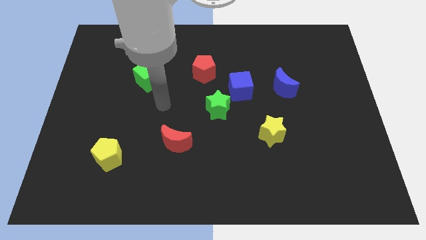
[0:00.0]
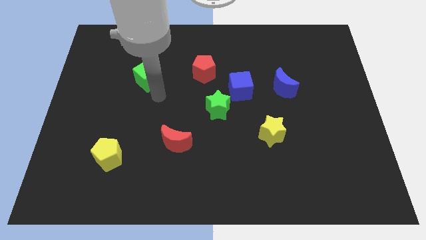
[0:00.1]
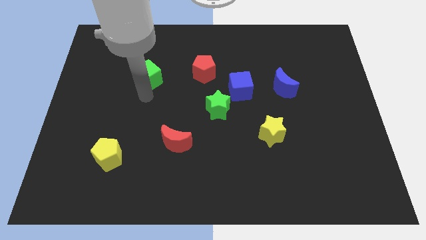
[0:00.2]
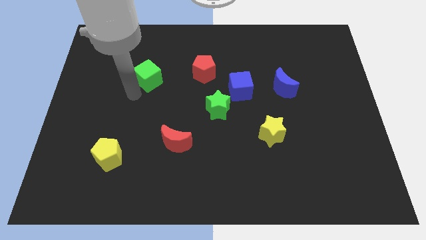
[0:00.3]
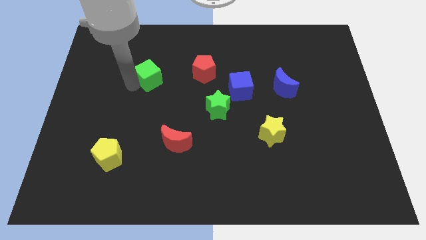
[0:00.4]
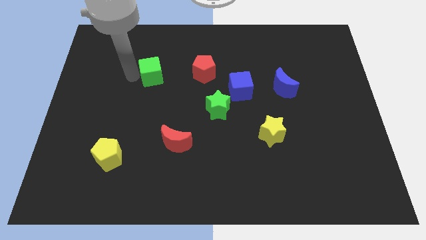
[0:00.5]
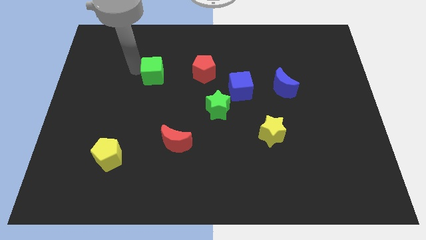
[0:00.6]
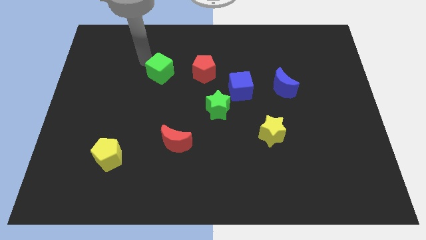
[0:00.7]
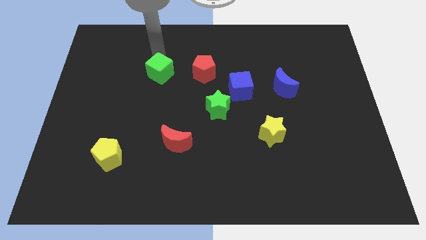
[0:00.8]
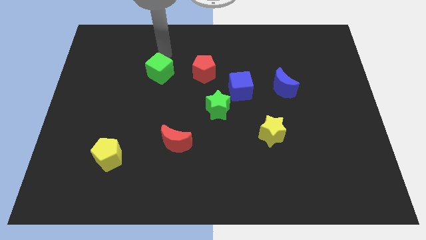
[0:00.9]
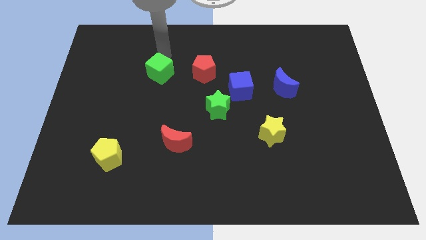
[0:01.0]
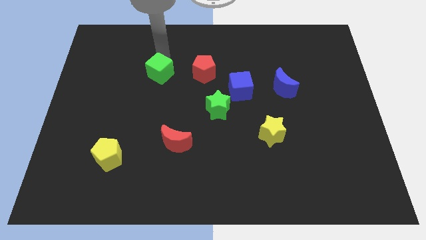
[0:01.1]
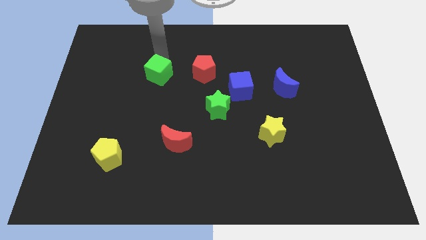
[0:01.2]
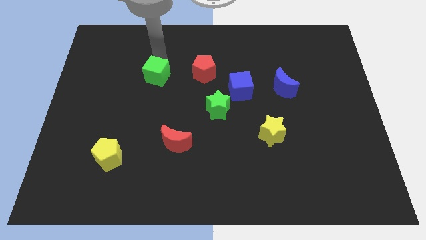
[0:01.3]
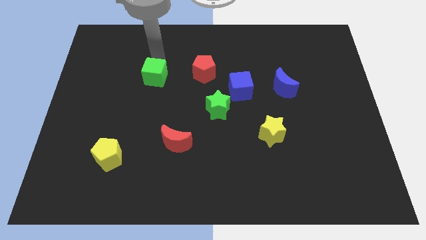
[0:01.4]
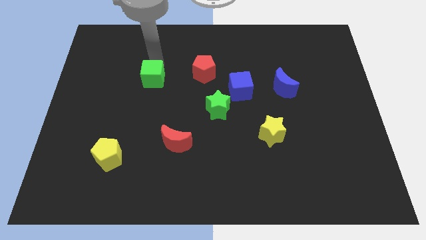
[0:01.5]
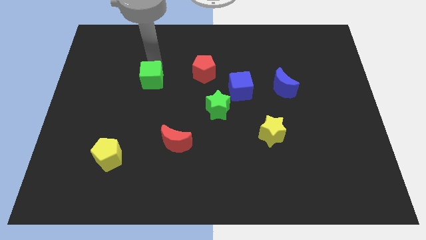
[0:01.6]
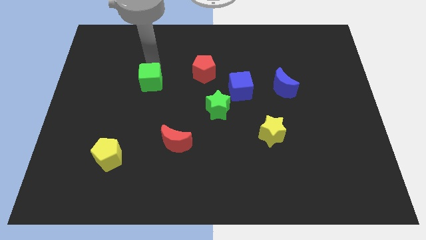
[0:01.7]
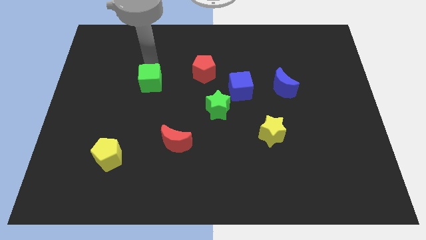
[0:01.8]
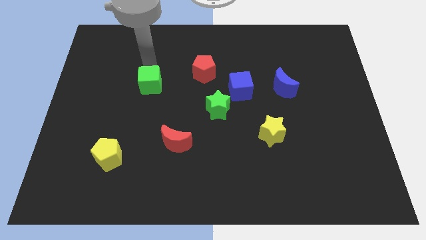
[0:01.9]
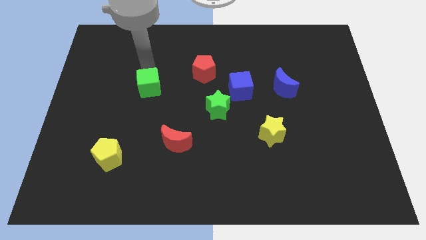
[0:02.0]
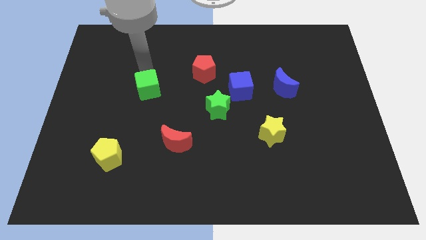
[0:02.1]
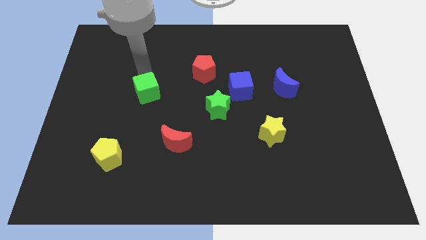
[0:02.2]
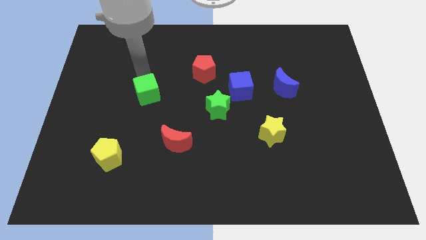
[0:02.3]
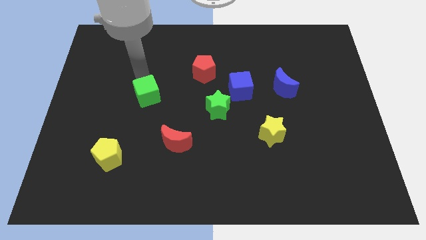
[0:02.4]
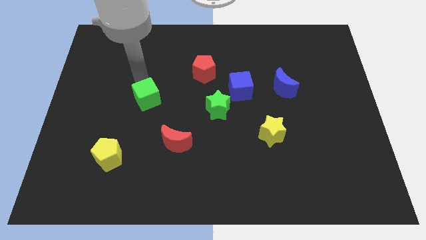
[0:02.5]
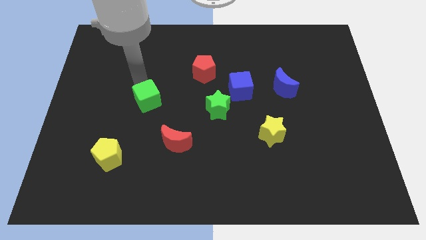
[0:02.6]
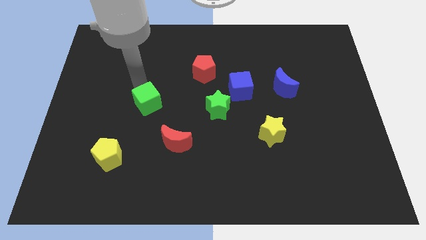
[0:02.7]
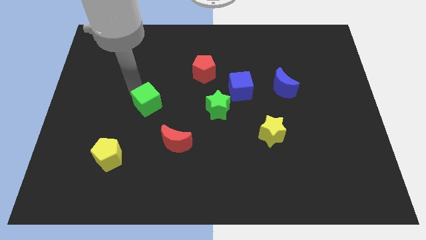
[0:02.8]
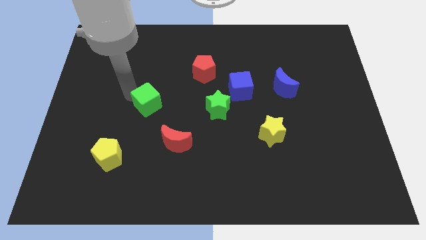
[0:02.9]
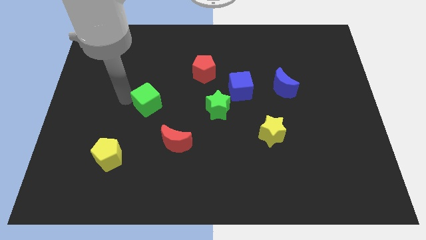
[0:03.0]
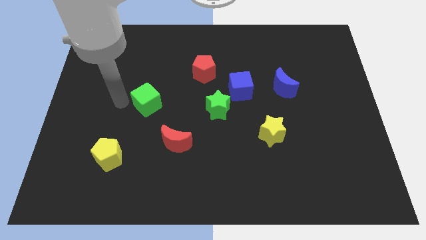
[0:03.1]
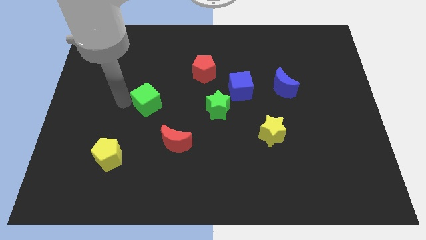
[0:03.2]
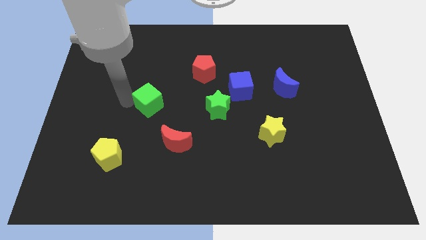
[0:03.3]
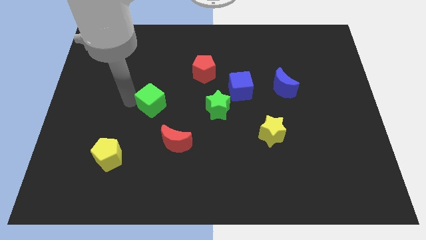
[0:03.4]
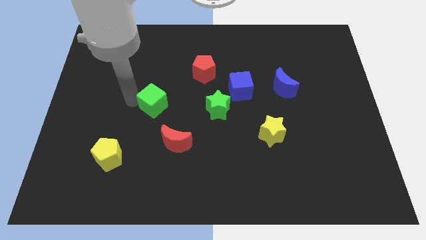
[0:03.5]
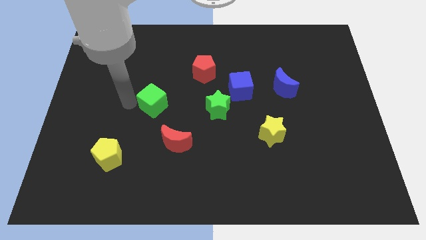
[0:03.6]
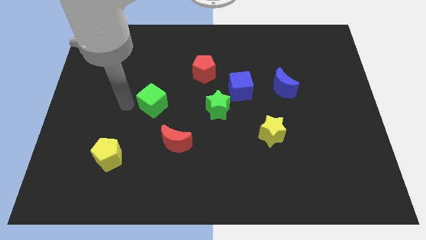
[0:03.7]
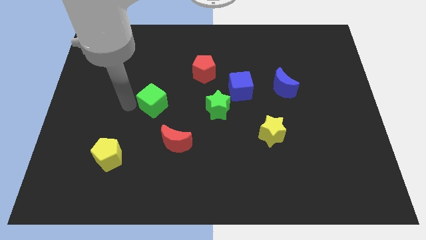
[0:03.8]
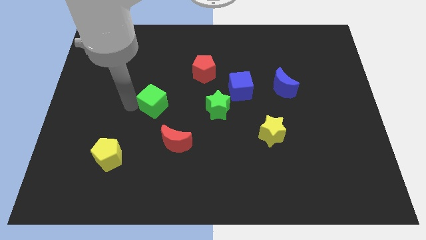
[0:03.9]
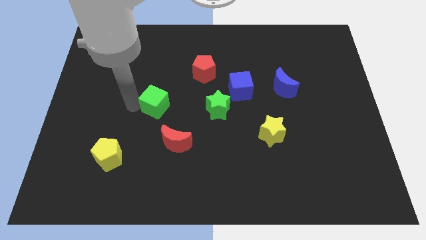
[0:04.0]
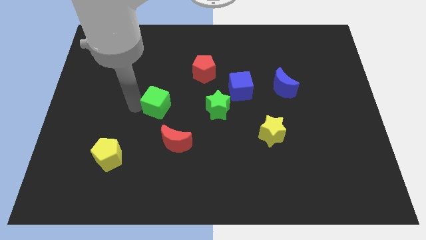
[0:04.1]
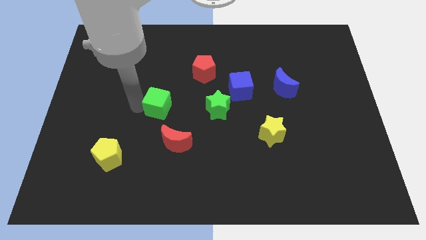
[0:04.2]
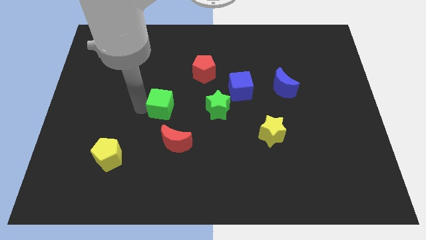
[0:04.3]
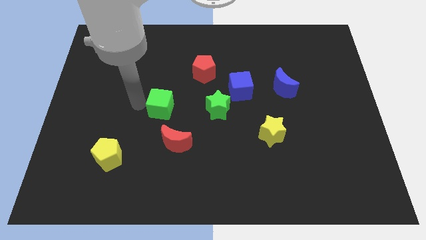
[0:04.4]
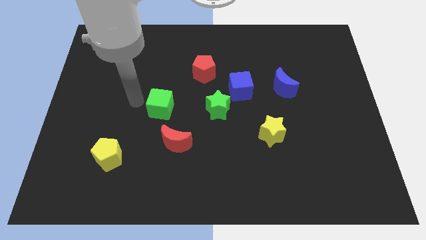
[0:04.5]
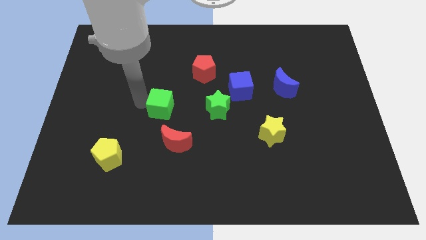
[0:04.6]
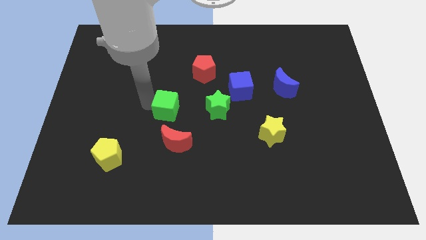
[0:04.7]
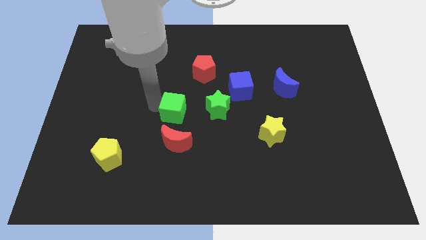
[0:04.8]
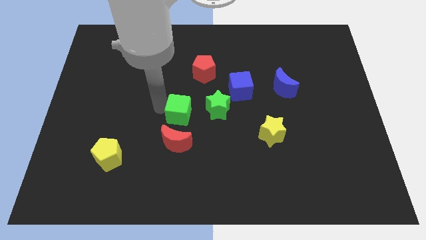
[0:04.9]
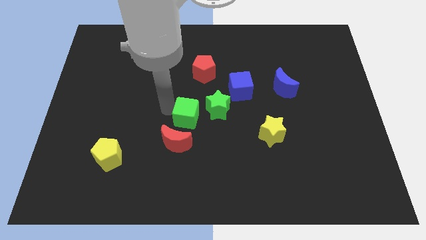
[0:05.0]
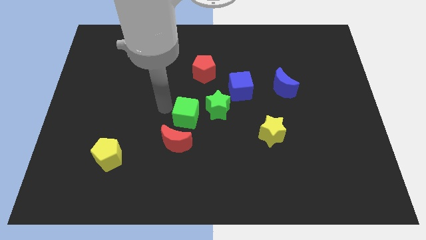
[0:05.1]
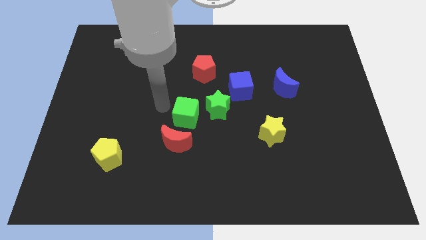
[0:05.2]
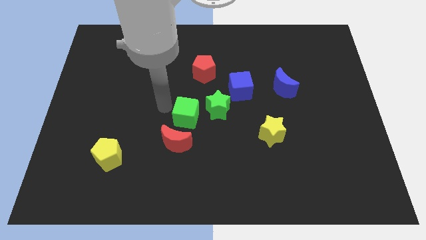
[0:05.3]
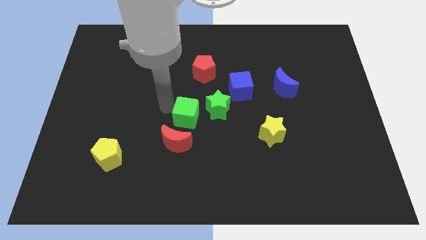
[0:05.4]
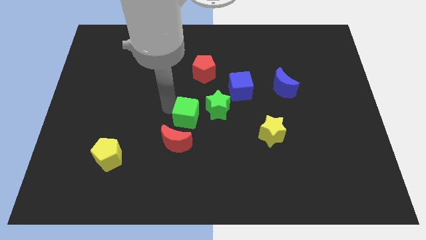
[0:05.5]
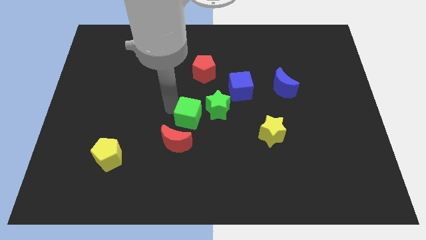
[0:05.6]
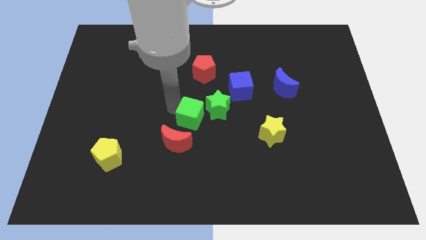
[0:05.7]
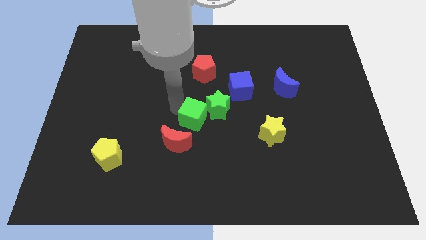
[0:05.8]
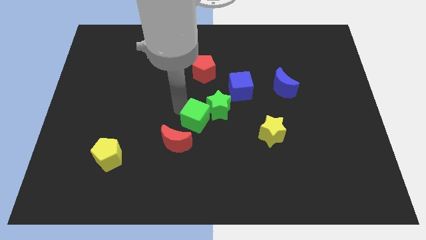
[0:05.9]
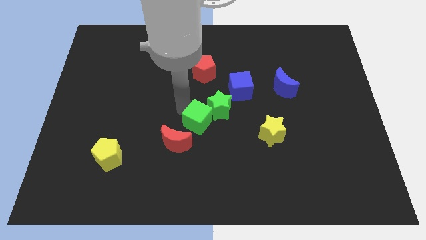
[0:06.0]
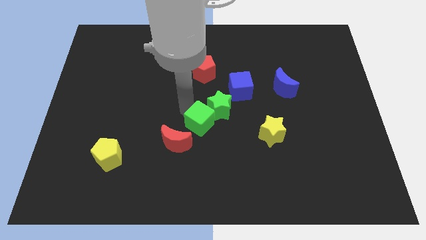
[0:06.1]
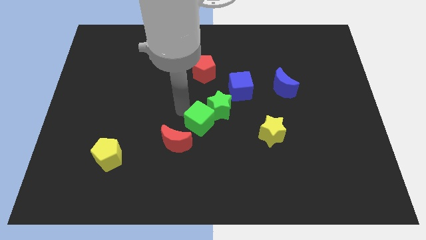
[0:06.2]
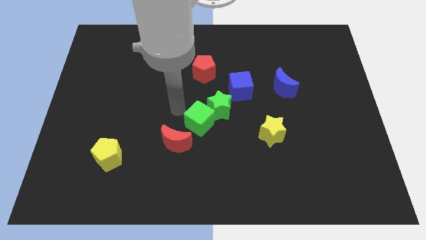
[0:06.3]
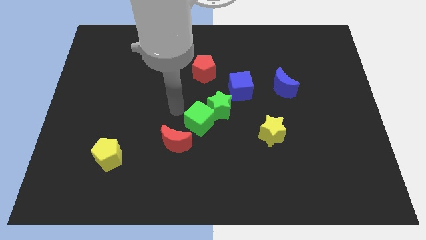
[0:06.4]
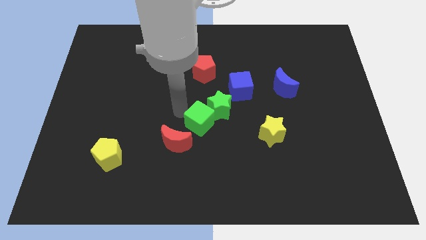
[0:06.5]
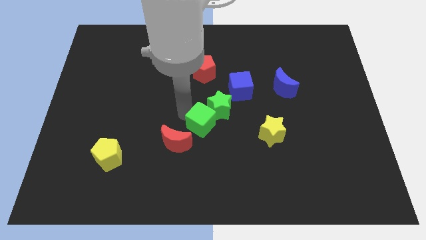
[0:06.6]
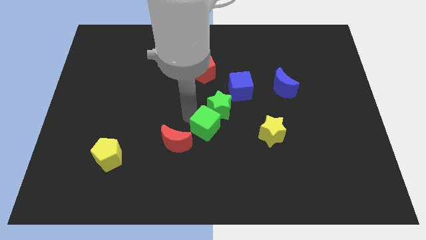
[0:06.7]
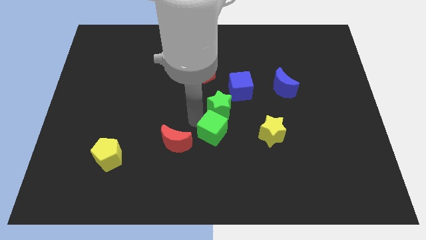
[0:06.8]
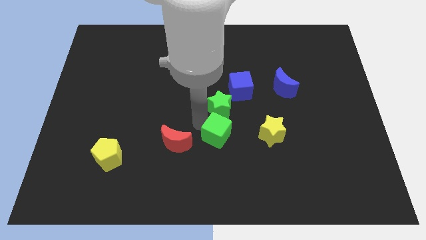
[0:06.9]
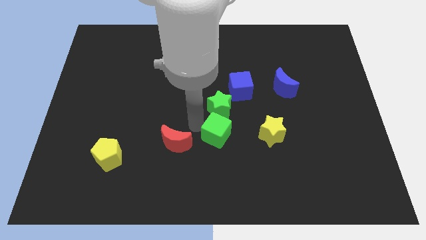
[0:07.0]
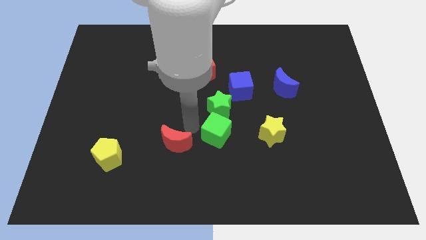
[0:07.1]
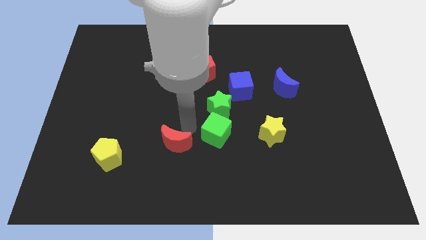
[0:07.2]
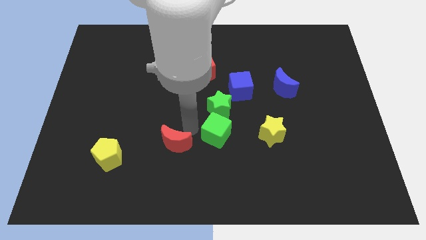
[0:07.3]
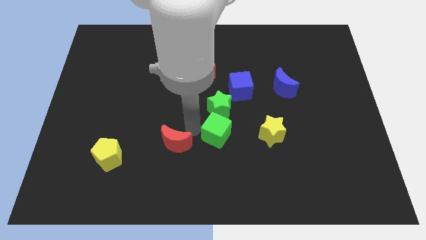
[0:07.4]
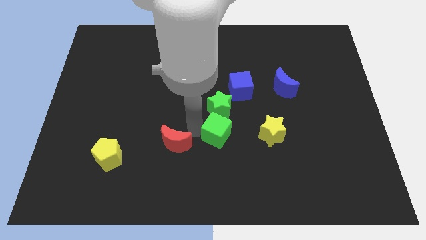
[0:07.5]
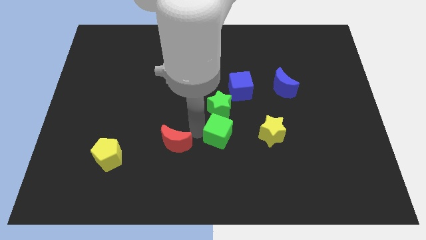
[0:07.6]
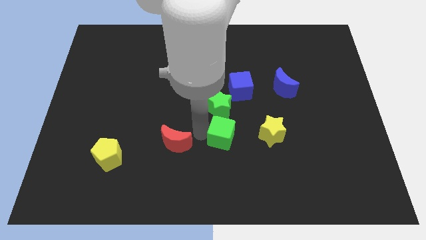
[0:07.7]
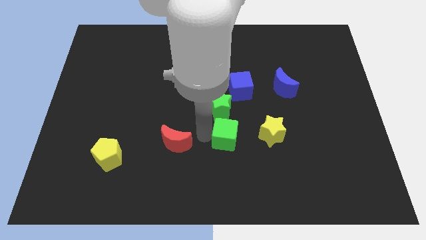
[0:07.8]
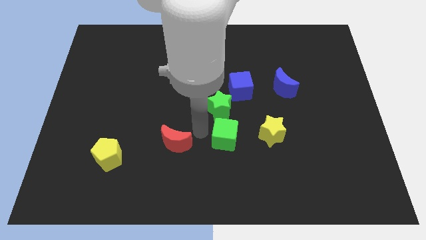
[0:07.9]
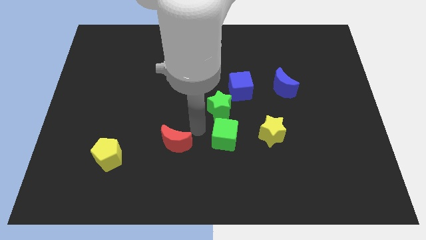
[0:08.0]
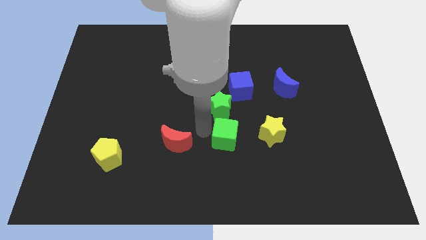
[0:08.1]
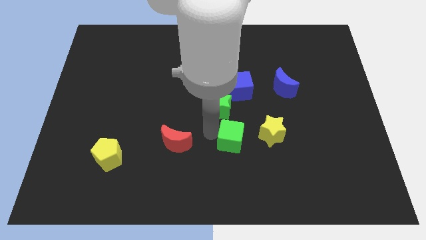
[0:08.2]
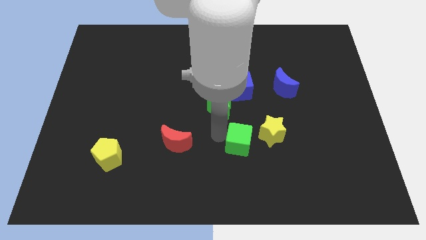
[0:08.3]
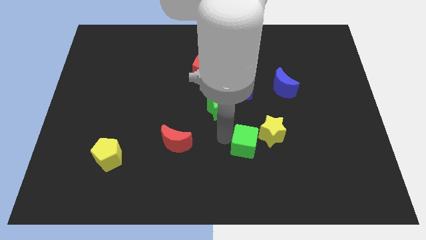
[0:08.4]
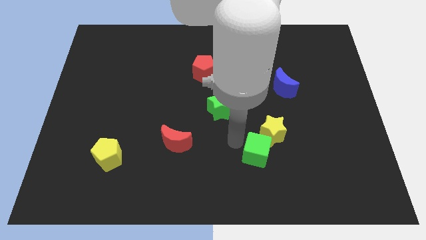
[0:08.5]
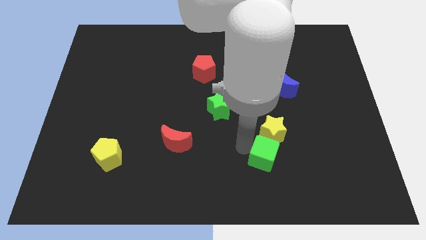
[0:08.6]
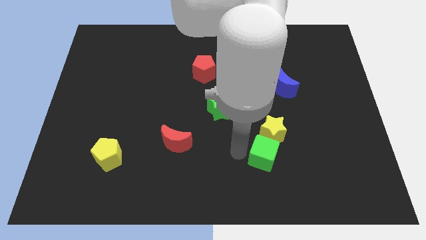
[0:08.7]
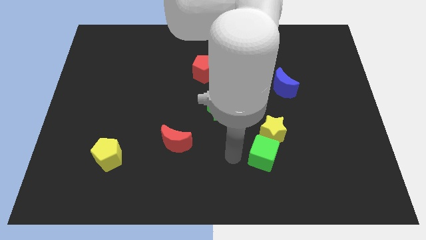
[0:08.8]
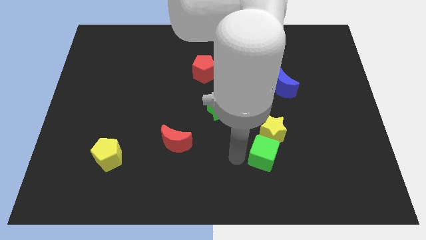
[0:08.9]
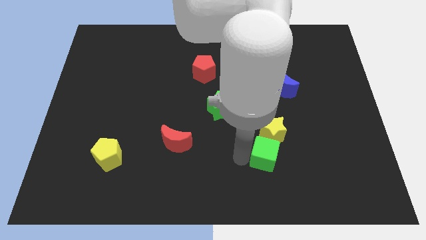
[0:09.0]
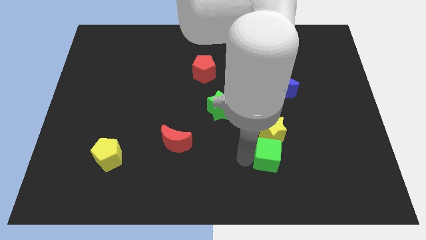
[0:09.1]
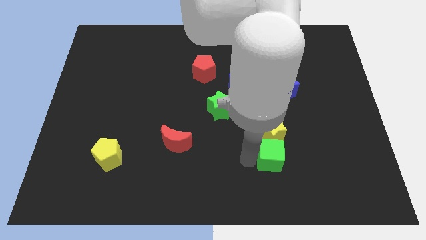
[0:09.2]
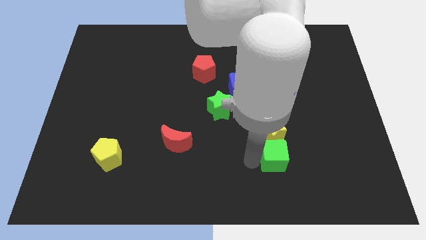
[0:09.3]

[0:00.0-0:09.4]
push the green cube to the bottom right side of the yellow star
